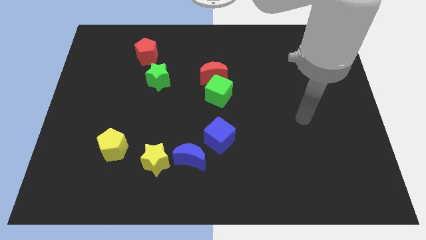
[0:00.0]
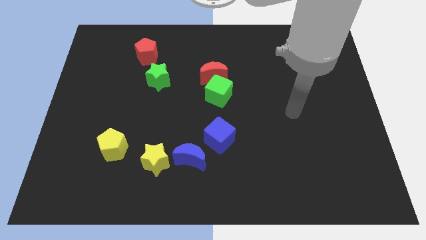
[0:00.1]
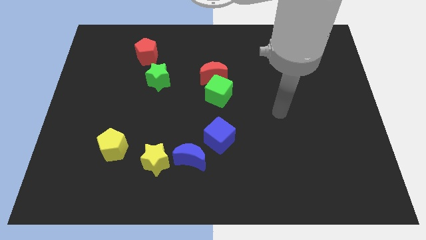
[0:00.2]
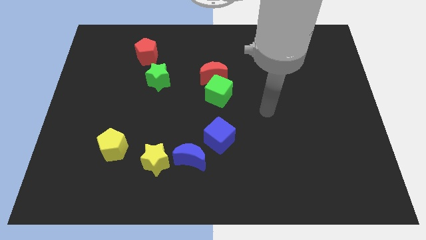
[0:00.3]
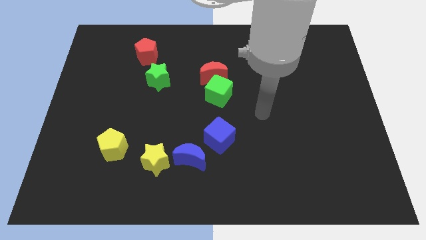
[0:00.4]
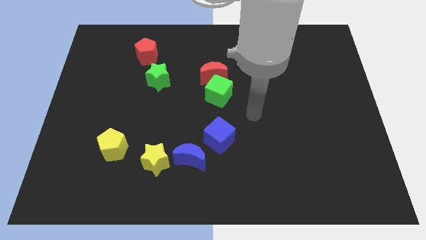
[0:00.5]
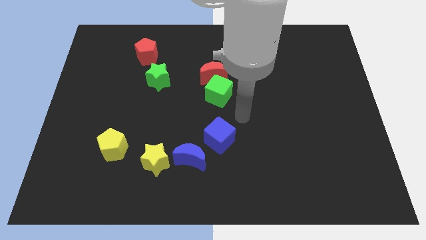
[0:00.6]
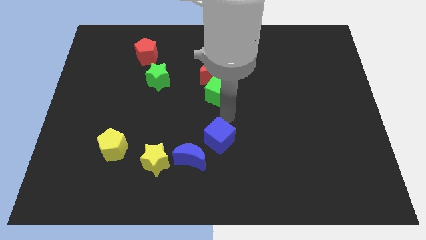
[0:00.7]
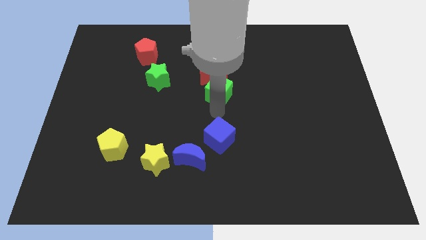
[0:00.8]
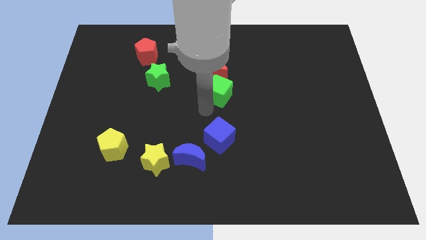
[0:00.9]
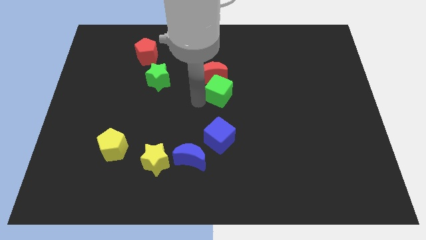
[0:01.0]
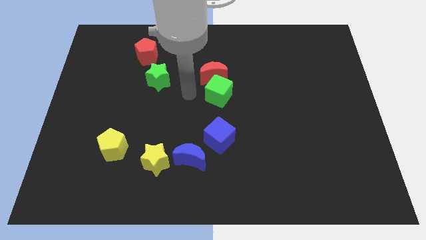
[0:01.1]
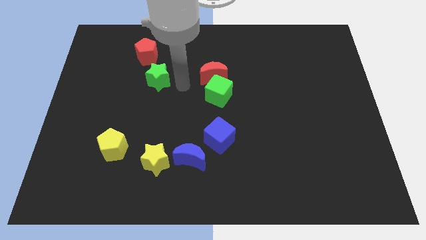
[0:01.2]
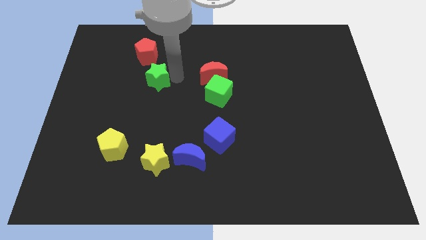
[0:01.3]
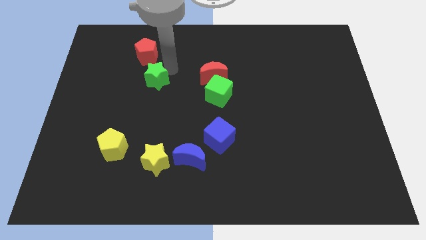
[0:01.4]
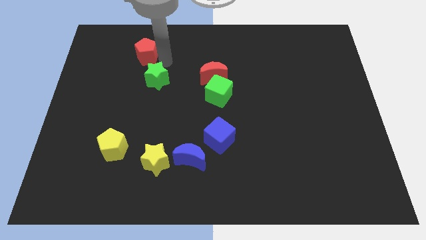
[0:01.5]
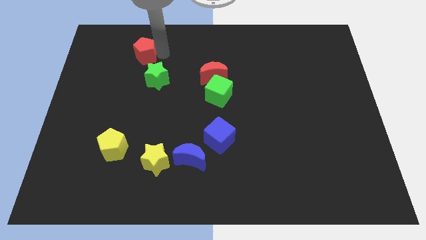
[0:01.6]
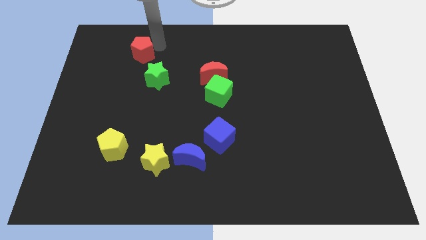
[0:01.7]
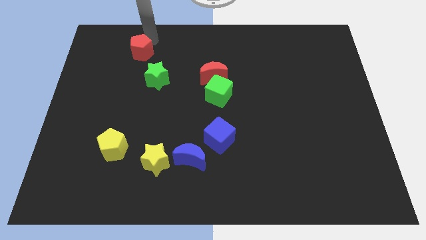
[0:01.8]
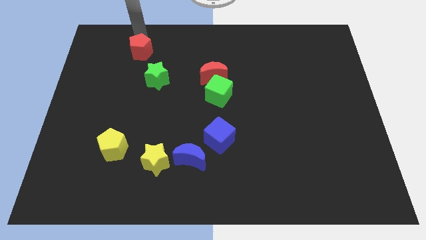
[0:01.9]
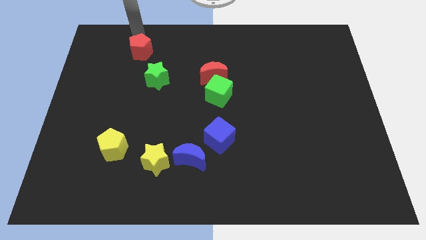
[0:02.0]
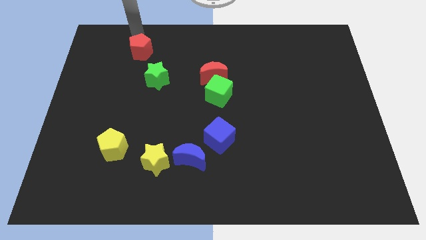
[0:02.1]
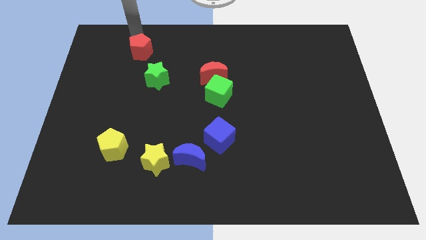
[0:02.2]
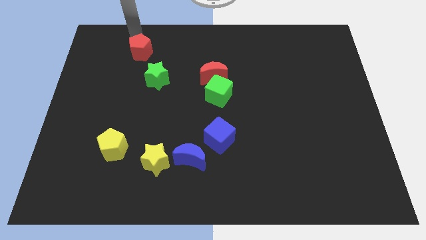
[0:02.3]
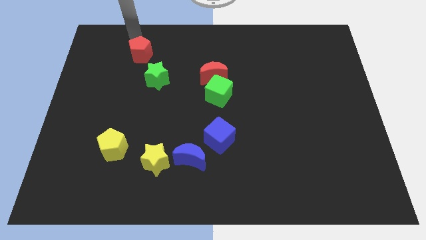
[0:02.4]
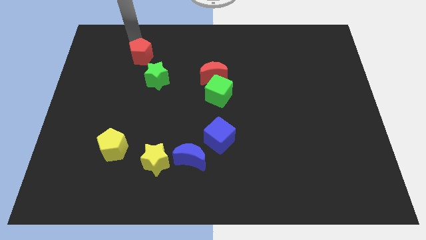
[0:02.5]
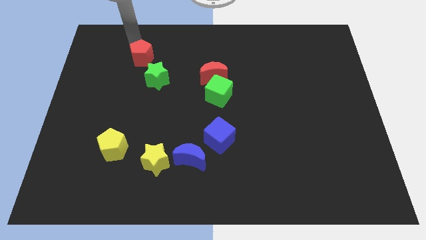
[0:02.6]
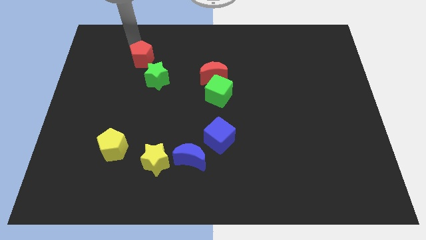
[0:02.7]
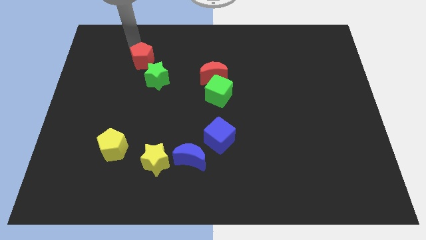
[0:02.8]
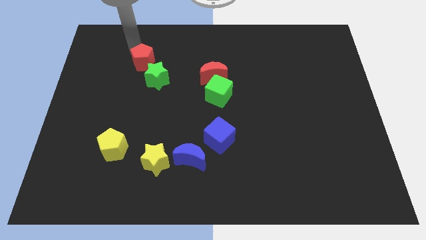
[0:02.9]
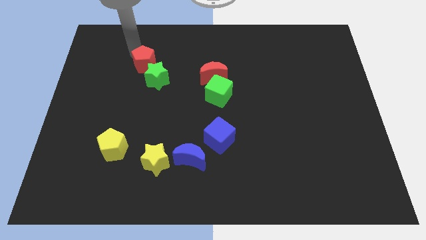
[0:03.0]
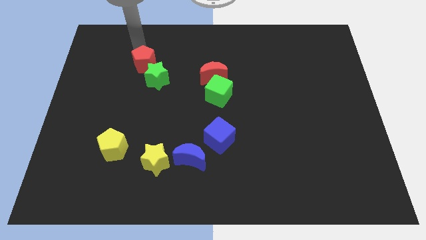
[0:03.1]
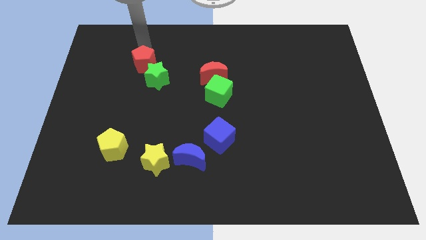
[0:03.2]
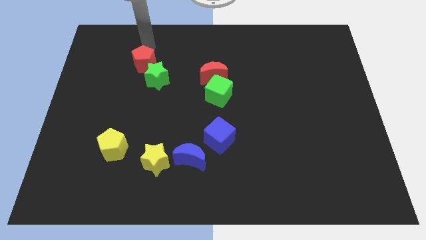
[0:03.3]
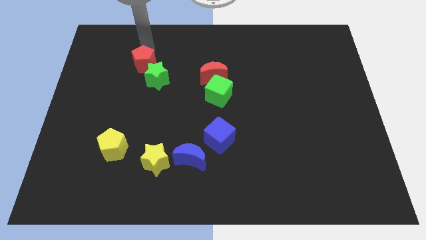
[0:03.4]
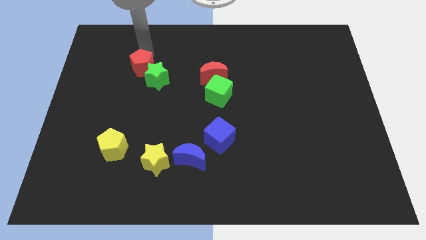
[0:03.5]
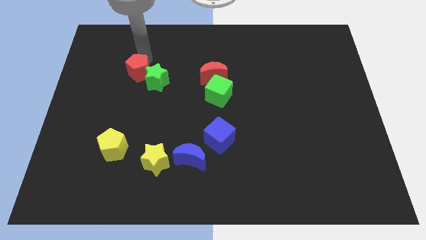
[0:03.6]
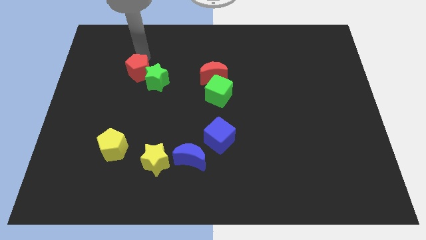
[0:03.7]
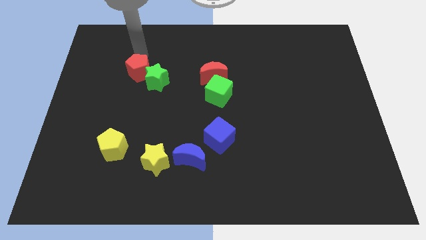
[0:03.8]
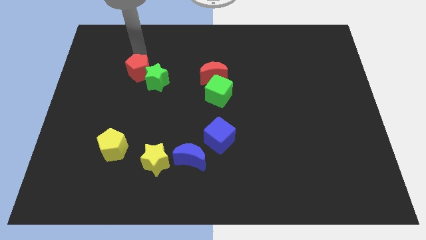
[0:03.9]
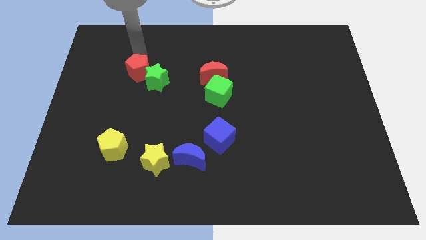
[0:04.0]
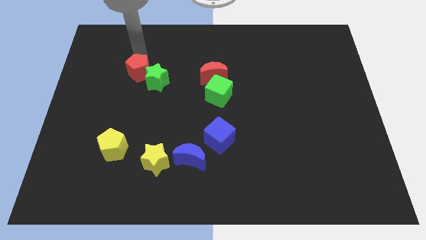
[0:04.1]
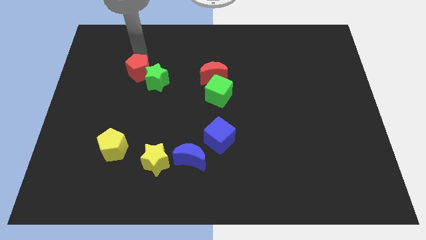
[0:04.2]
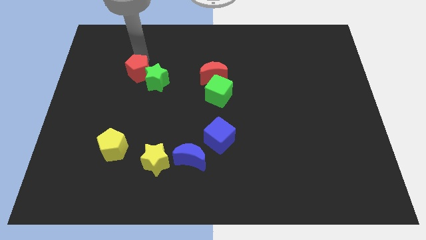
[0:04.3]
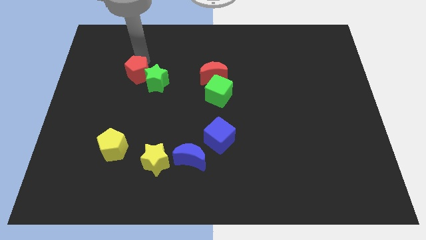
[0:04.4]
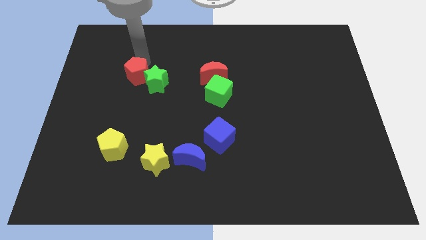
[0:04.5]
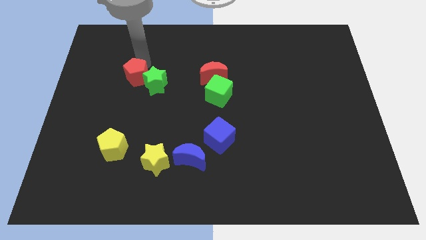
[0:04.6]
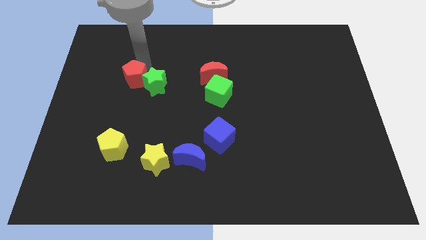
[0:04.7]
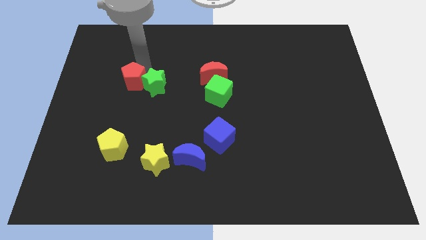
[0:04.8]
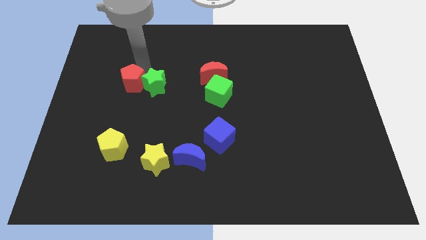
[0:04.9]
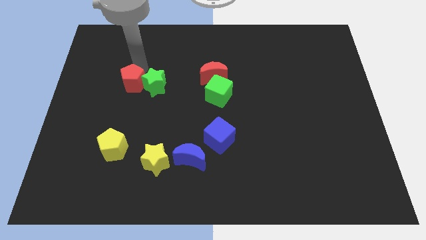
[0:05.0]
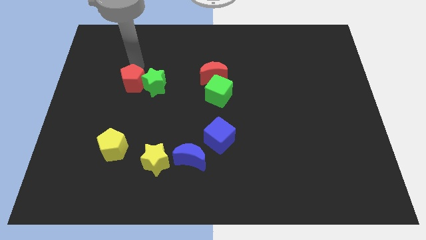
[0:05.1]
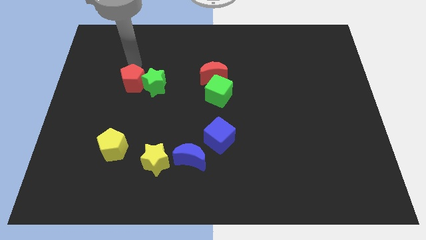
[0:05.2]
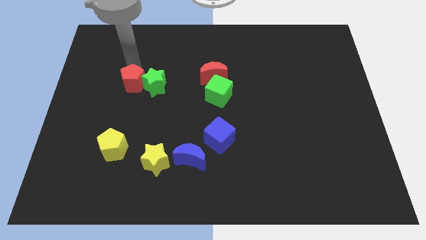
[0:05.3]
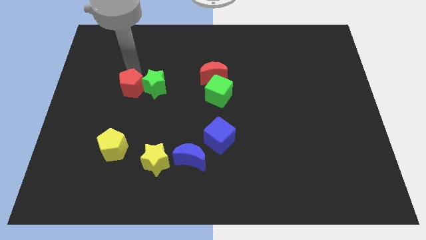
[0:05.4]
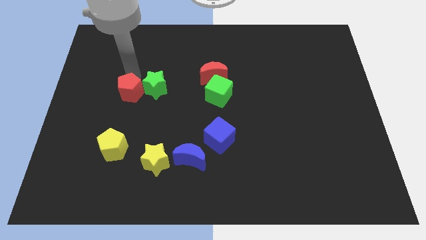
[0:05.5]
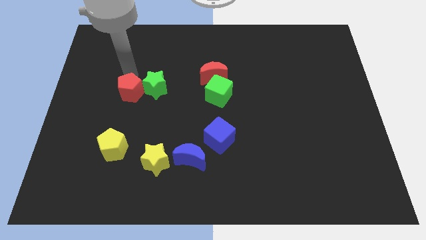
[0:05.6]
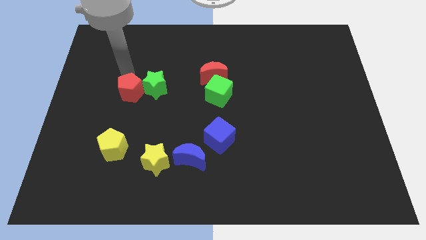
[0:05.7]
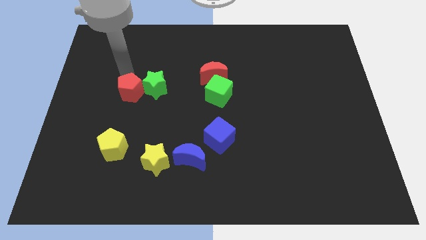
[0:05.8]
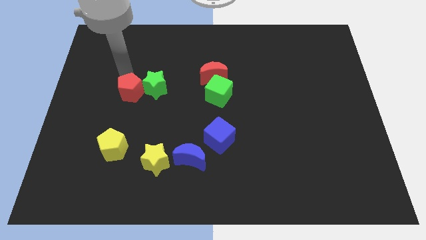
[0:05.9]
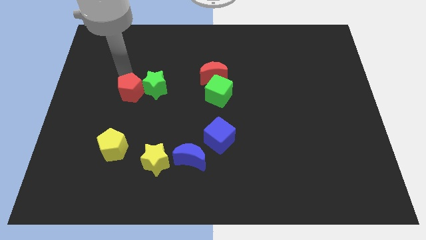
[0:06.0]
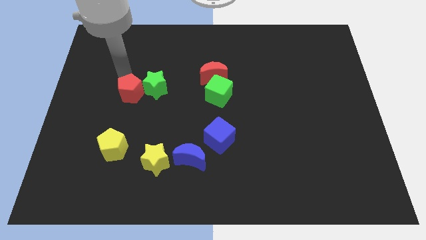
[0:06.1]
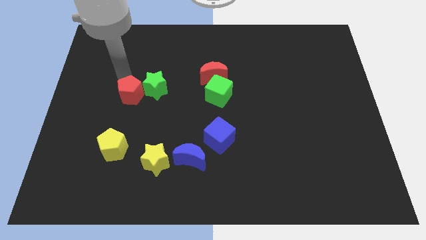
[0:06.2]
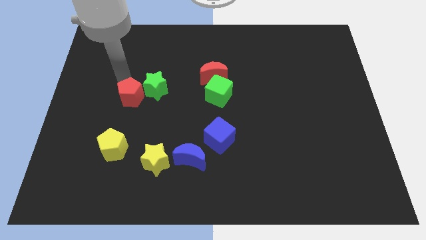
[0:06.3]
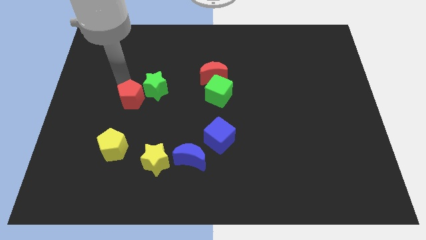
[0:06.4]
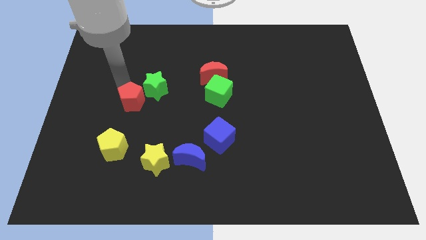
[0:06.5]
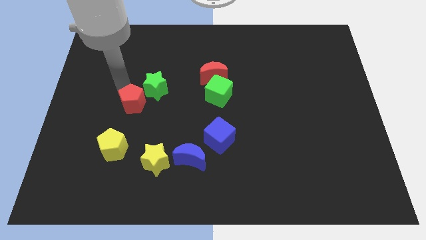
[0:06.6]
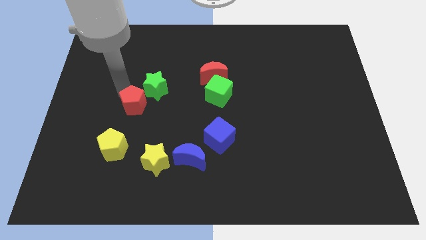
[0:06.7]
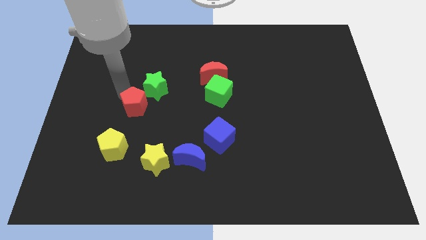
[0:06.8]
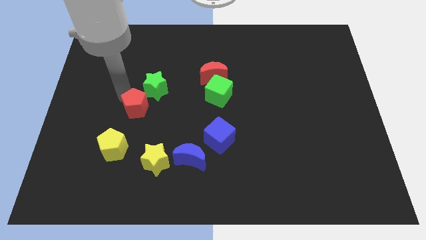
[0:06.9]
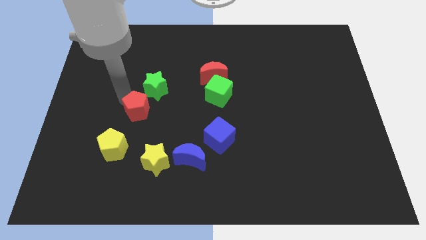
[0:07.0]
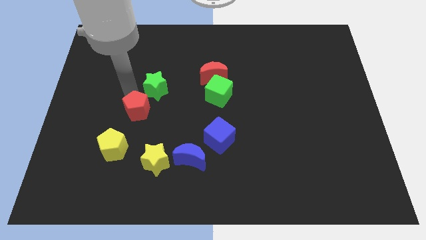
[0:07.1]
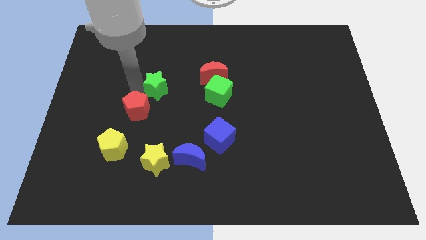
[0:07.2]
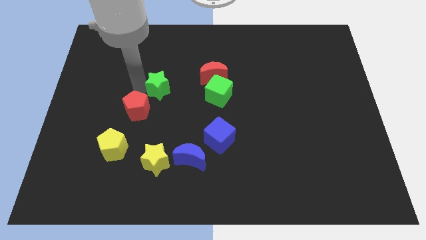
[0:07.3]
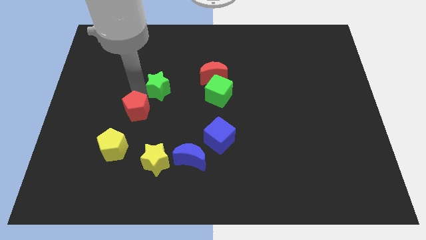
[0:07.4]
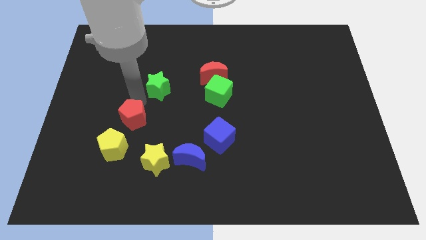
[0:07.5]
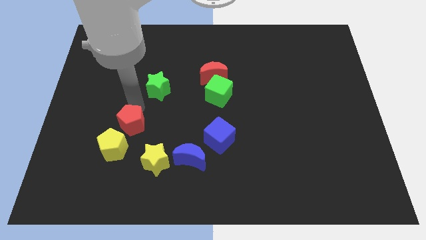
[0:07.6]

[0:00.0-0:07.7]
put the red pentagon diagonally up and to the left of the yellow star
